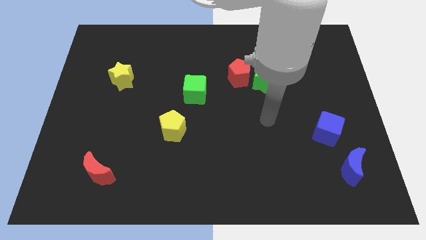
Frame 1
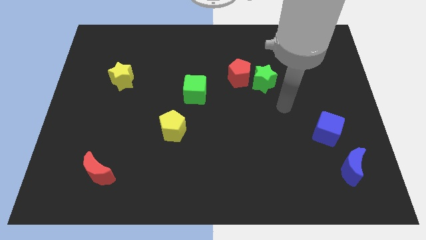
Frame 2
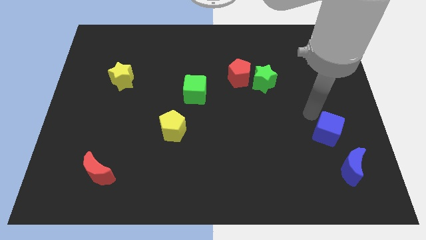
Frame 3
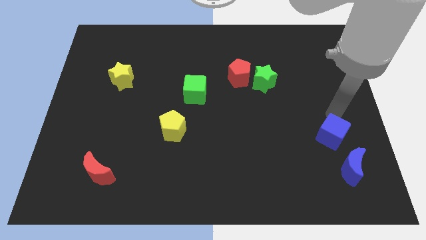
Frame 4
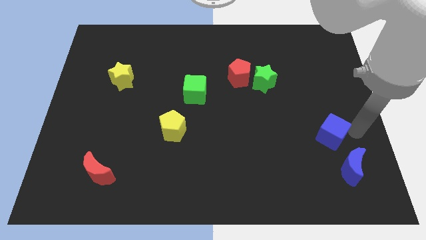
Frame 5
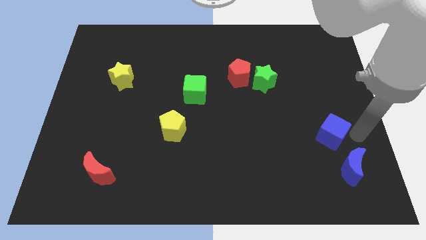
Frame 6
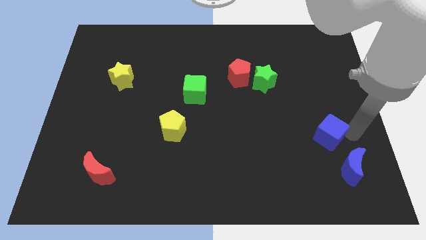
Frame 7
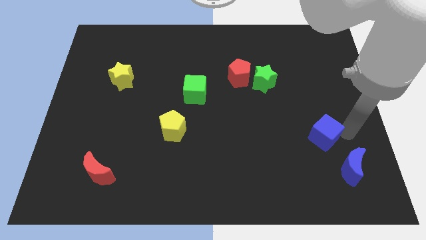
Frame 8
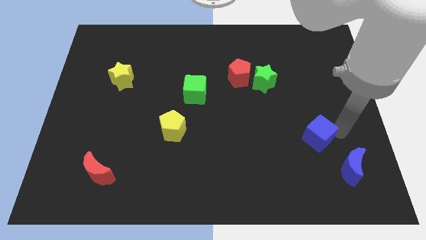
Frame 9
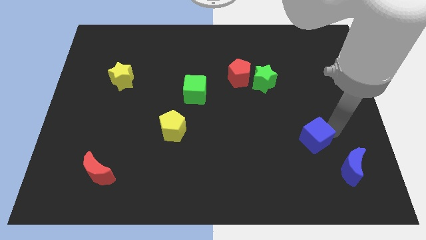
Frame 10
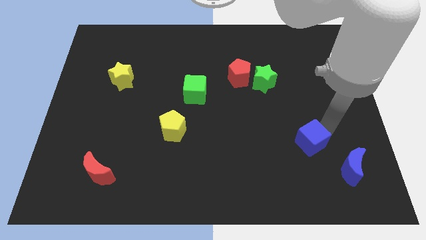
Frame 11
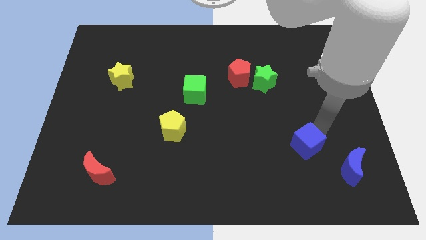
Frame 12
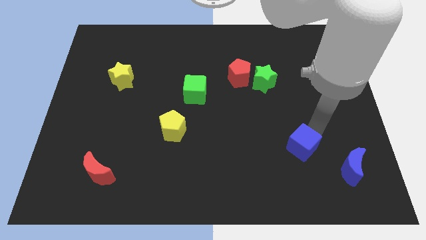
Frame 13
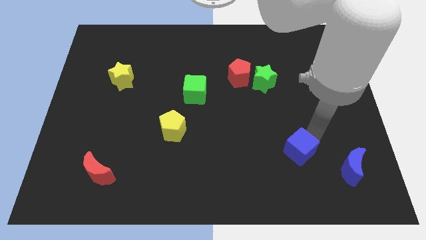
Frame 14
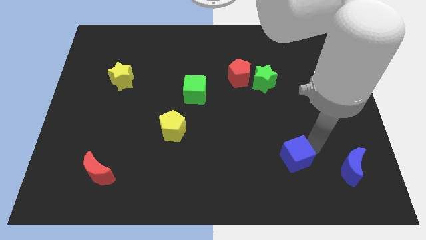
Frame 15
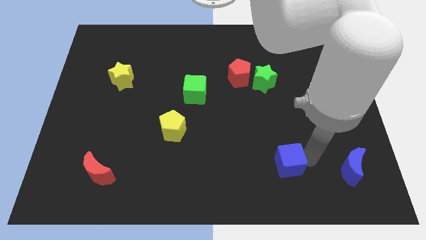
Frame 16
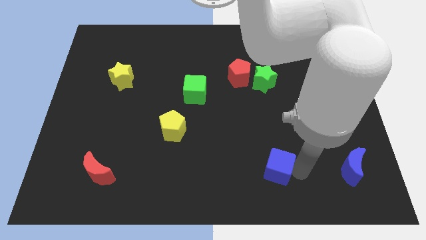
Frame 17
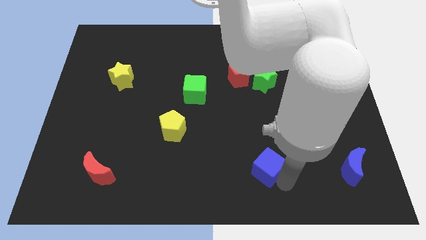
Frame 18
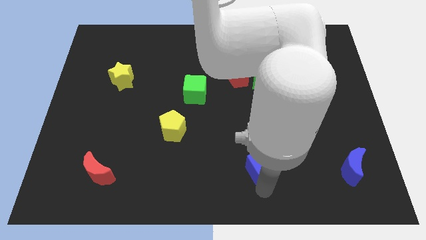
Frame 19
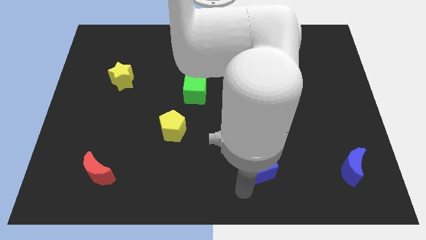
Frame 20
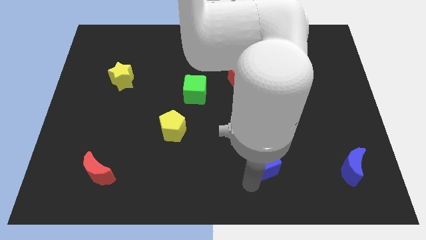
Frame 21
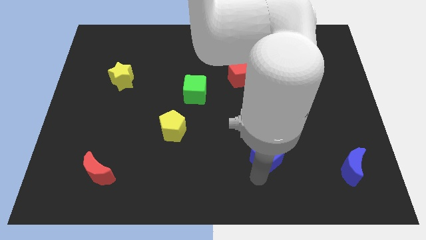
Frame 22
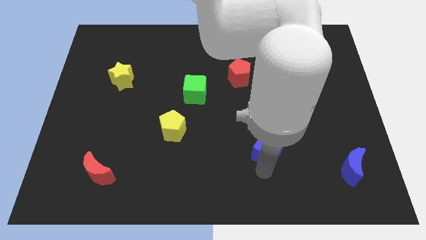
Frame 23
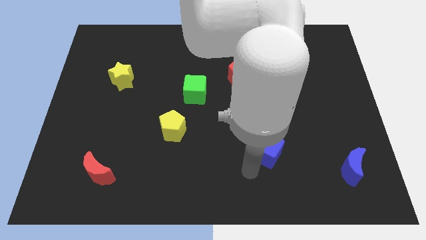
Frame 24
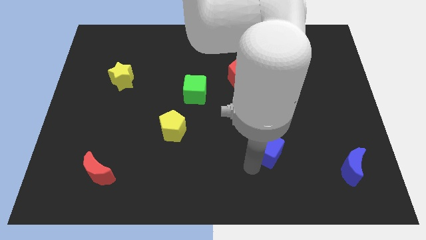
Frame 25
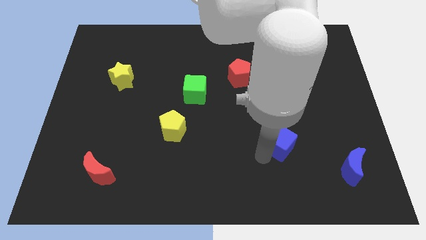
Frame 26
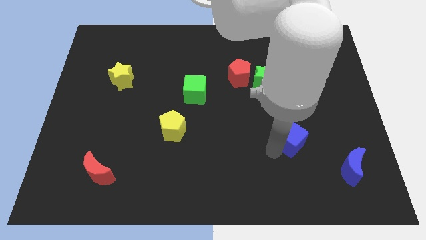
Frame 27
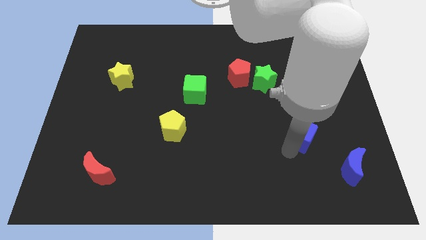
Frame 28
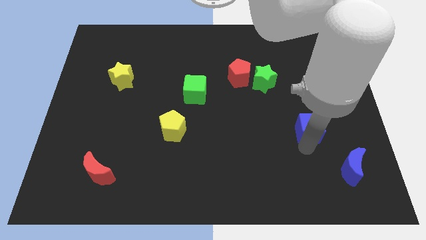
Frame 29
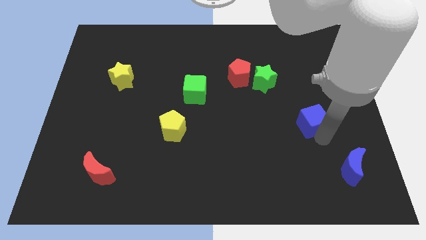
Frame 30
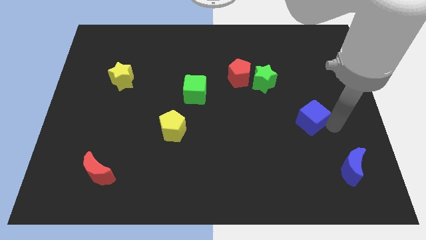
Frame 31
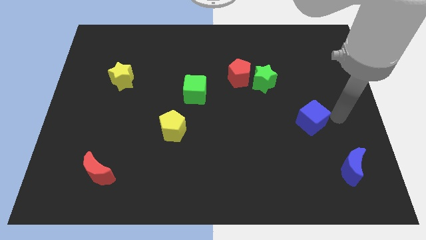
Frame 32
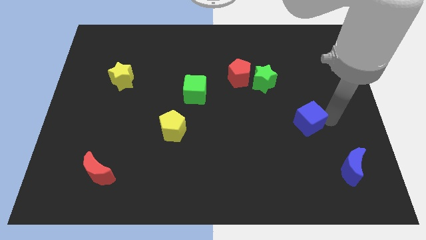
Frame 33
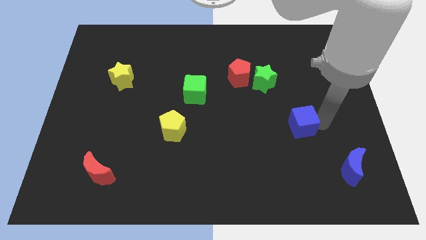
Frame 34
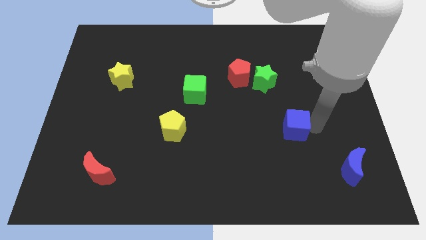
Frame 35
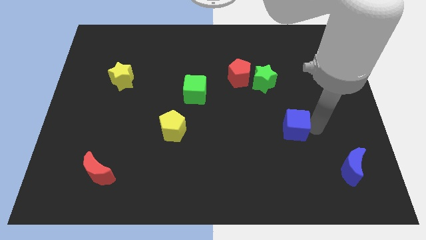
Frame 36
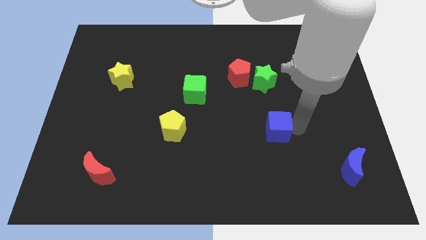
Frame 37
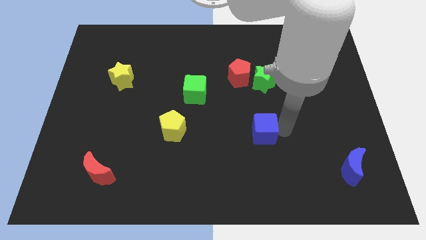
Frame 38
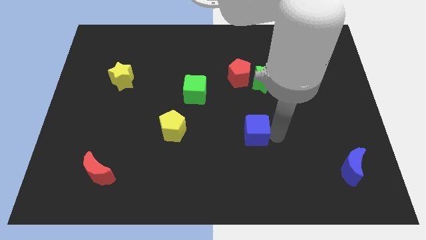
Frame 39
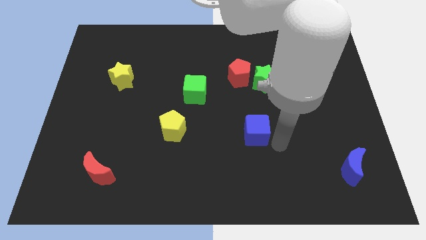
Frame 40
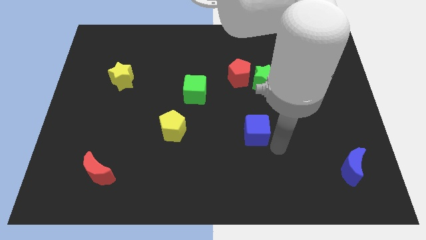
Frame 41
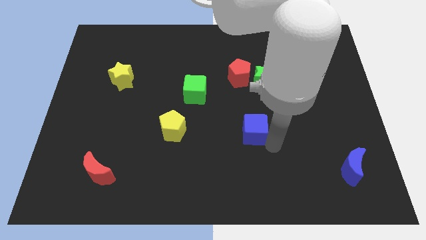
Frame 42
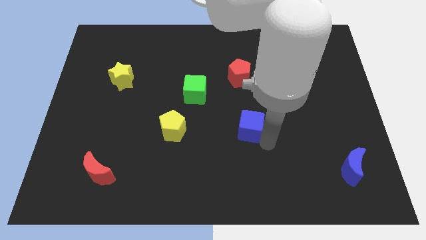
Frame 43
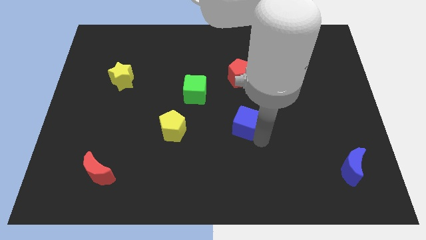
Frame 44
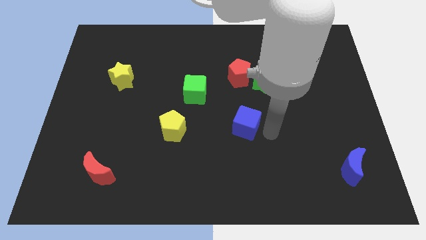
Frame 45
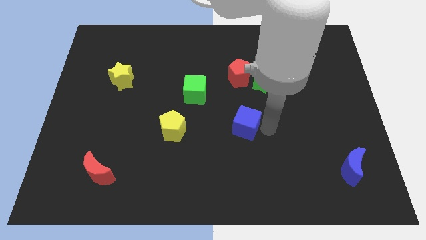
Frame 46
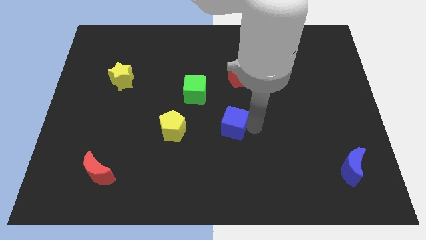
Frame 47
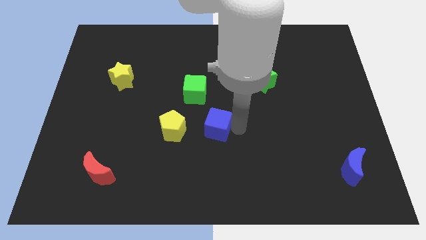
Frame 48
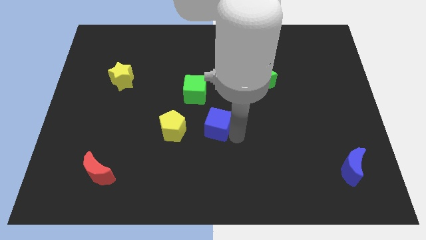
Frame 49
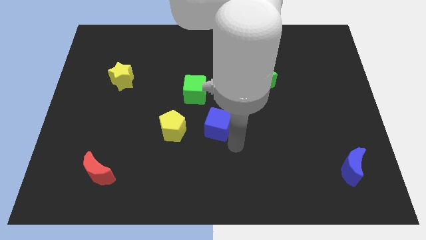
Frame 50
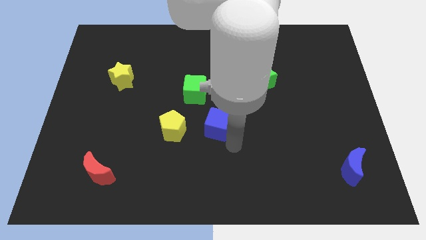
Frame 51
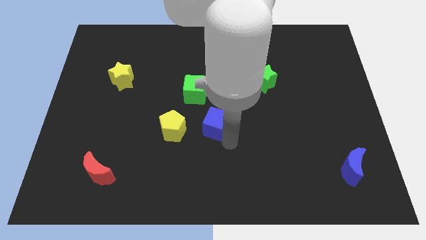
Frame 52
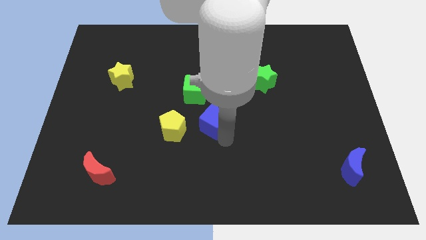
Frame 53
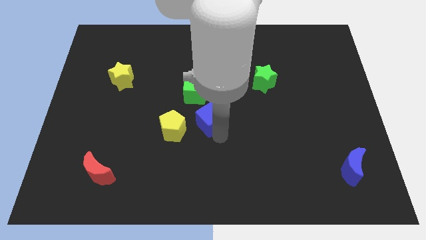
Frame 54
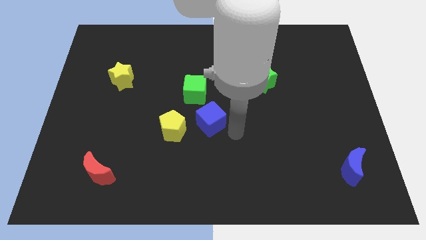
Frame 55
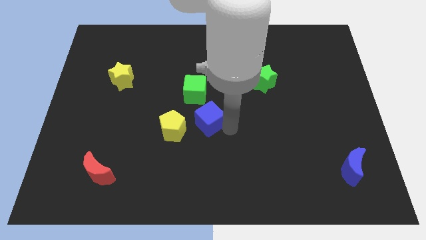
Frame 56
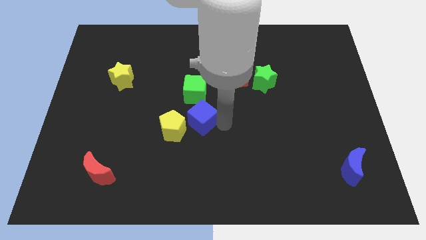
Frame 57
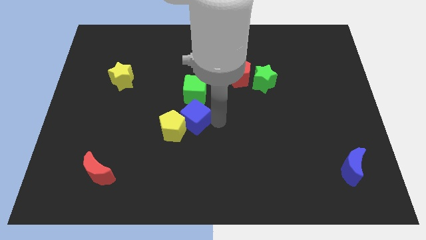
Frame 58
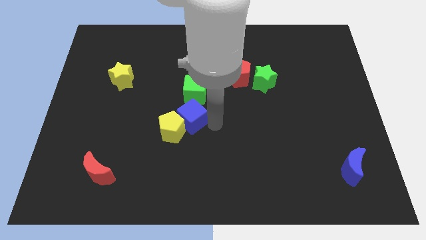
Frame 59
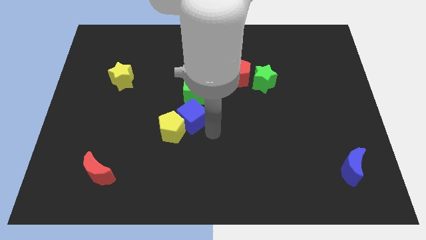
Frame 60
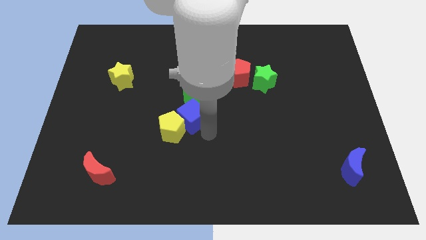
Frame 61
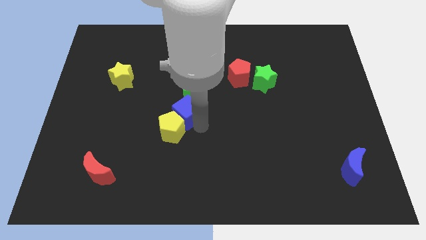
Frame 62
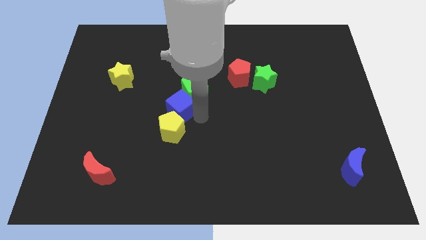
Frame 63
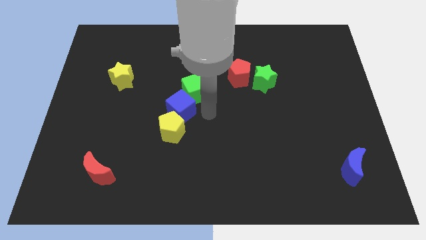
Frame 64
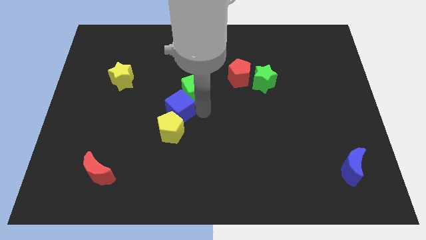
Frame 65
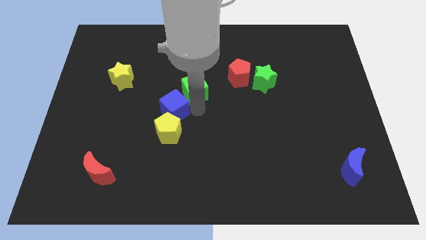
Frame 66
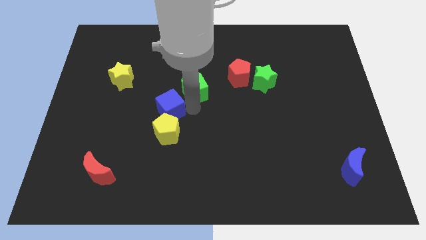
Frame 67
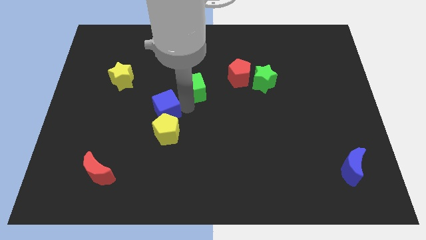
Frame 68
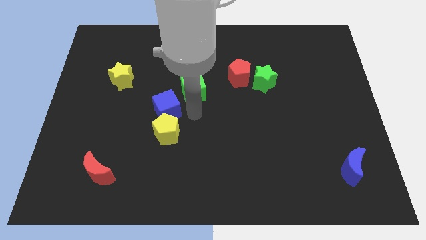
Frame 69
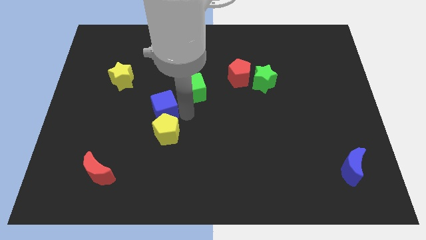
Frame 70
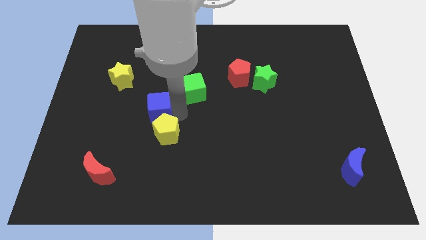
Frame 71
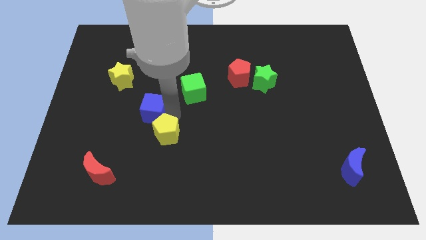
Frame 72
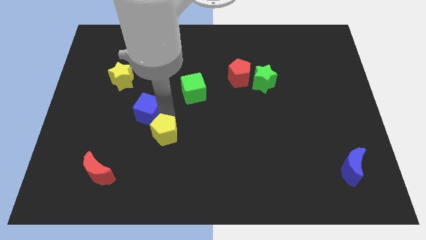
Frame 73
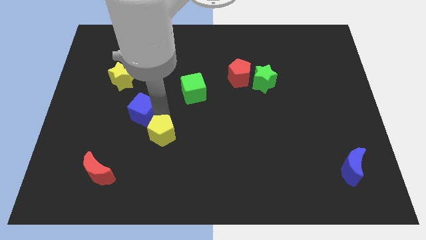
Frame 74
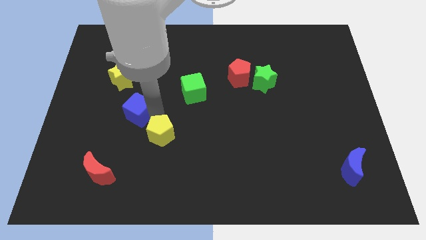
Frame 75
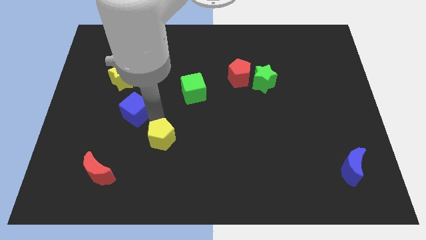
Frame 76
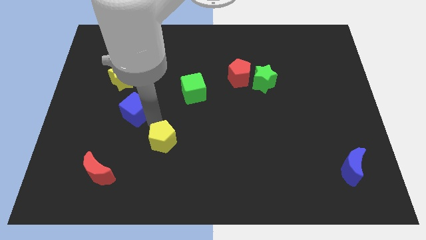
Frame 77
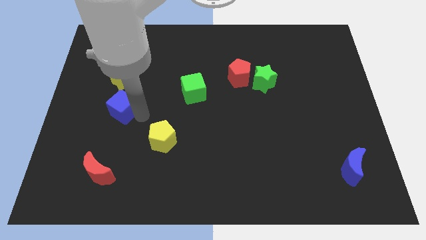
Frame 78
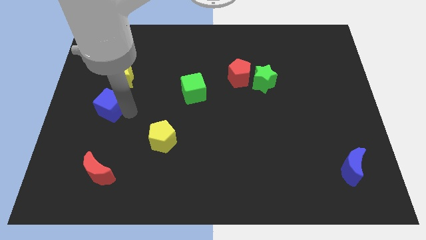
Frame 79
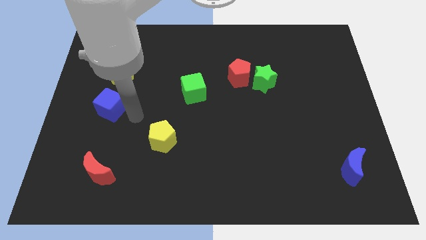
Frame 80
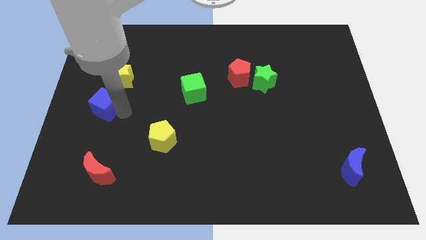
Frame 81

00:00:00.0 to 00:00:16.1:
put the blue cube to the left side
